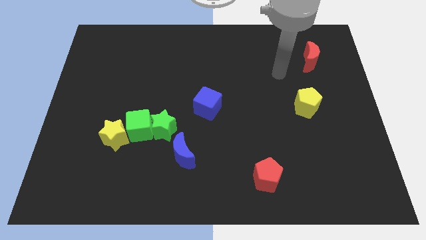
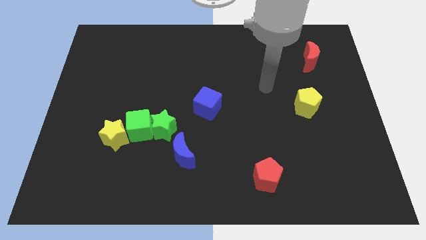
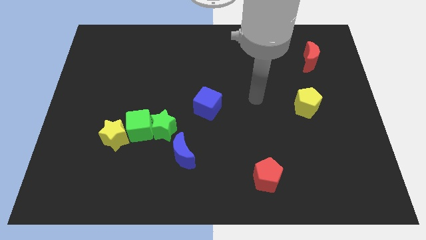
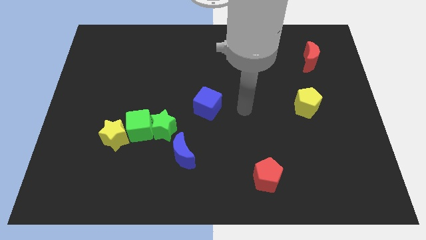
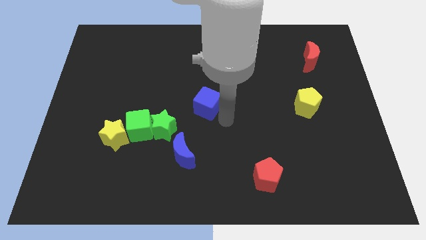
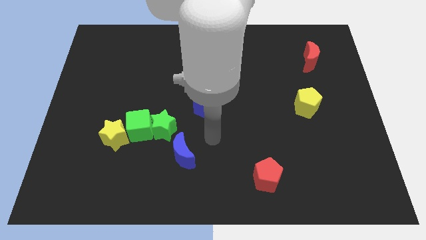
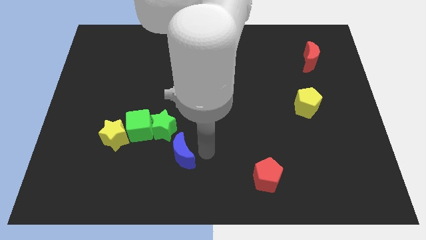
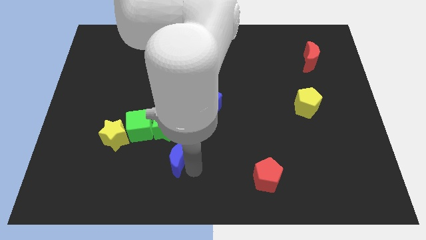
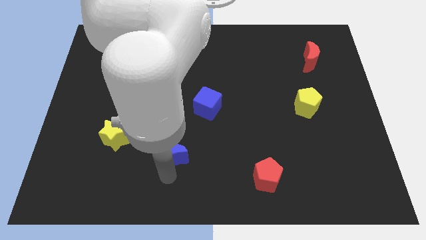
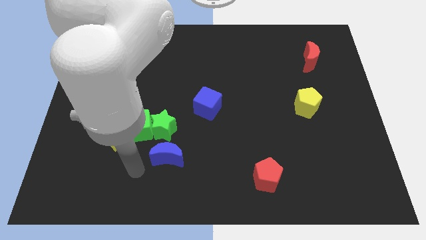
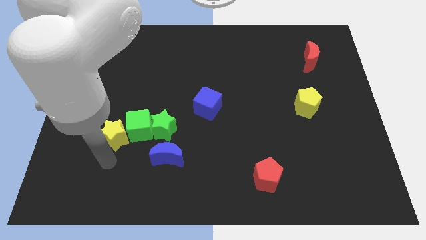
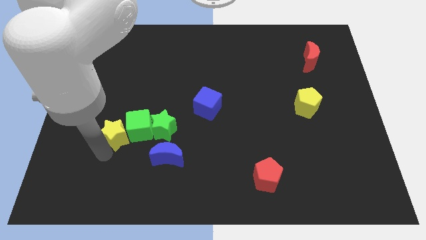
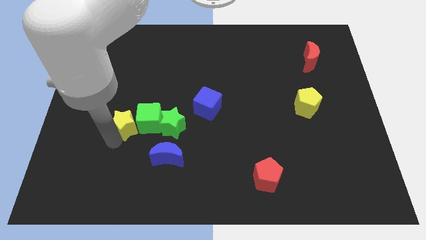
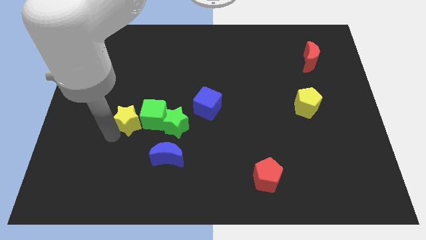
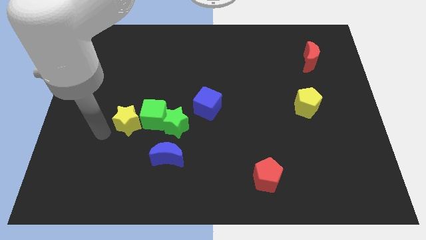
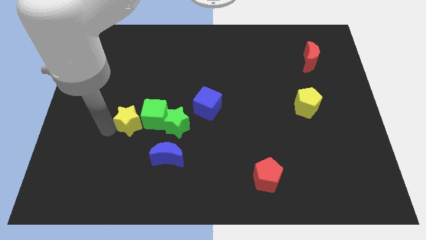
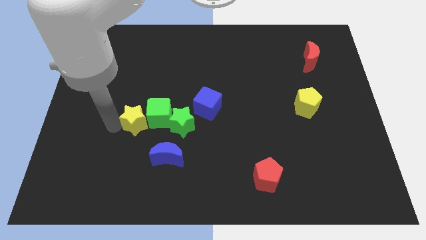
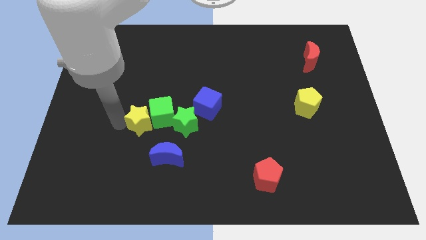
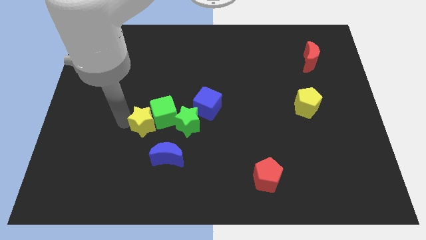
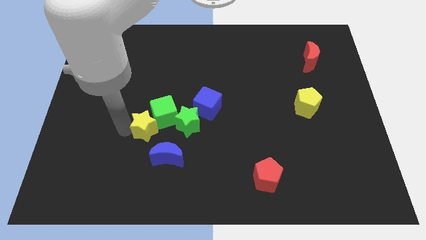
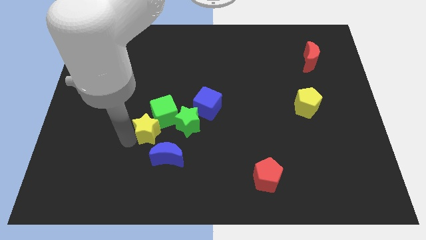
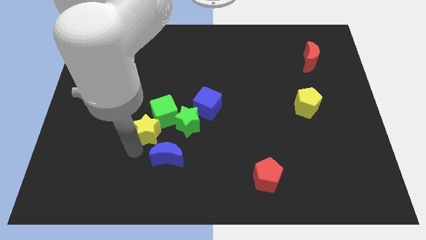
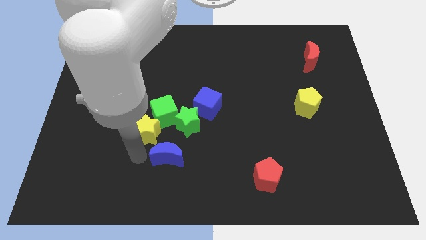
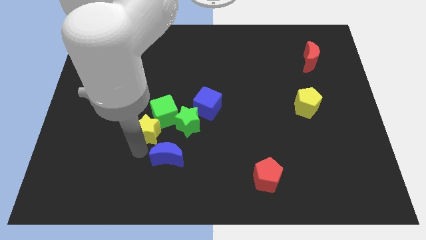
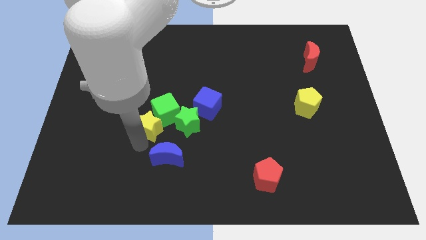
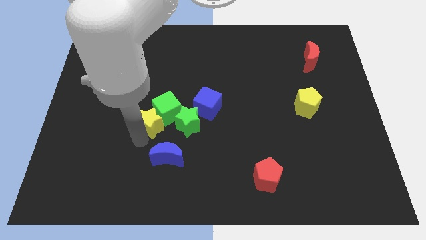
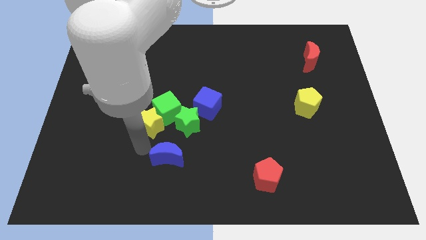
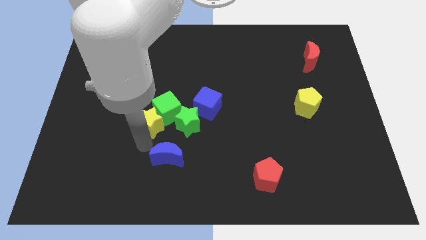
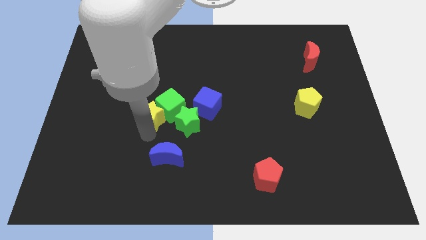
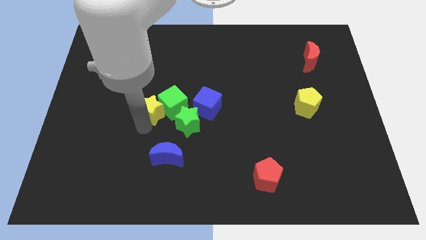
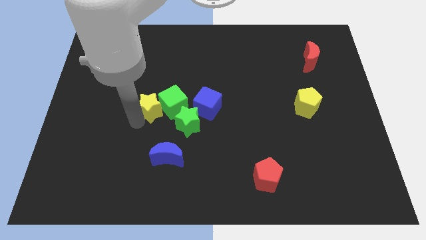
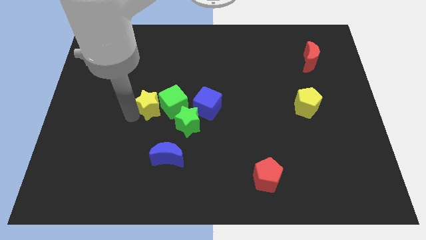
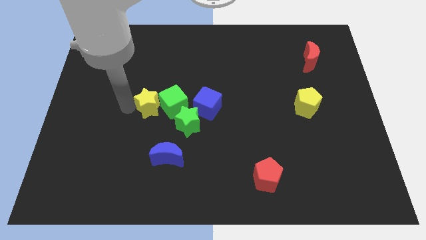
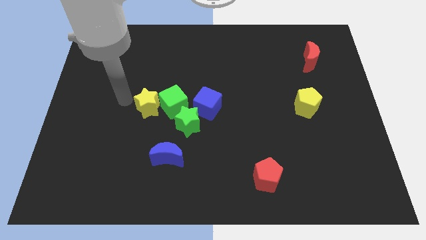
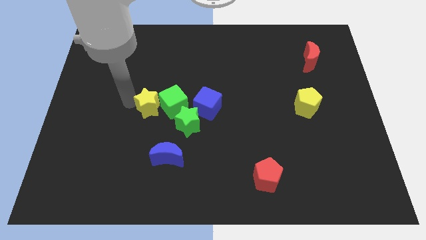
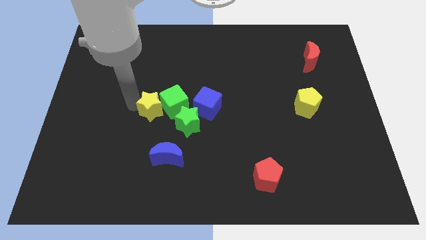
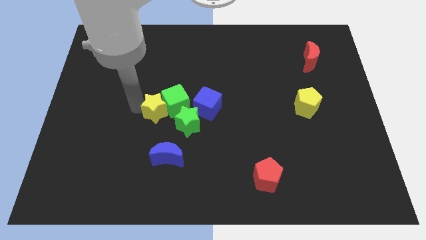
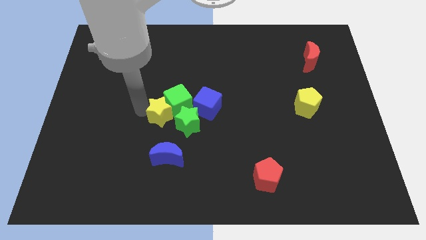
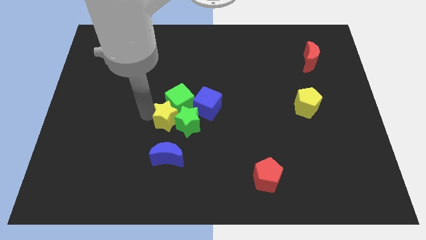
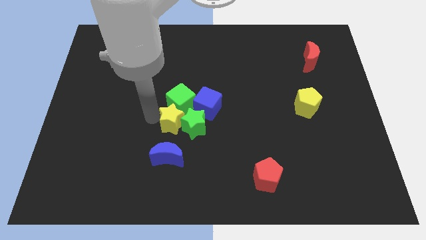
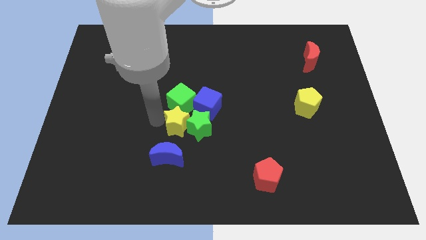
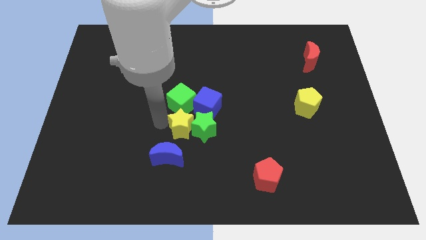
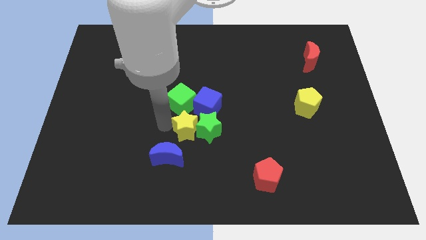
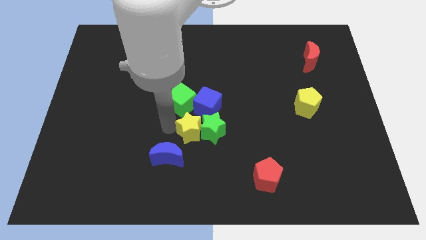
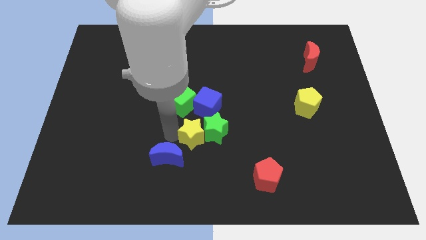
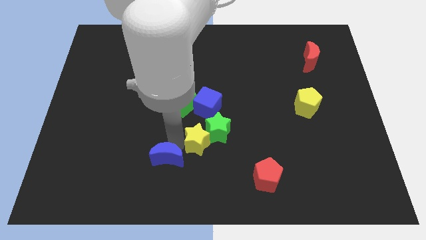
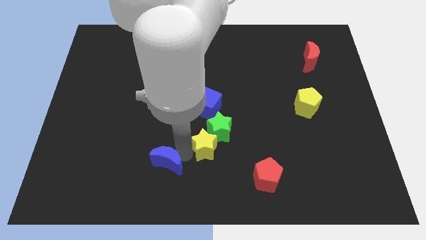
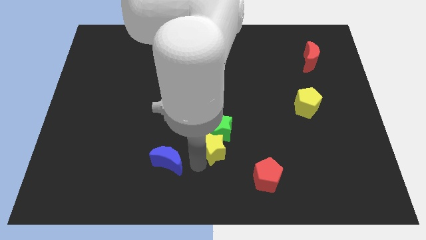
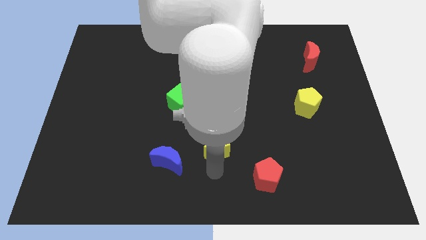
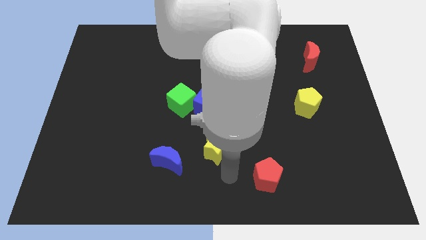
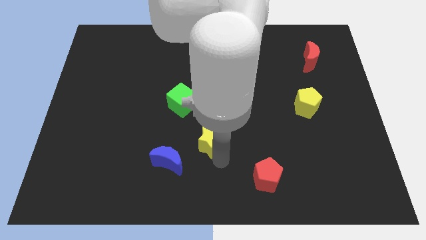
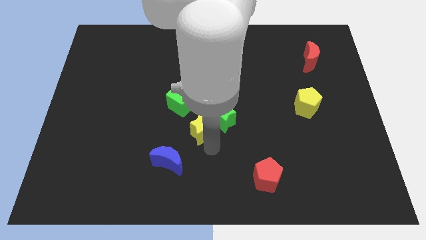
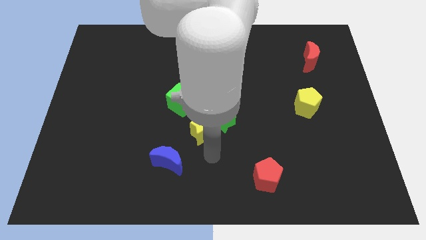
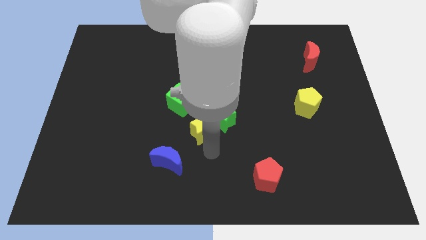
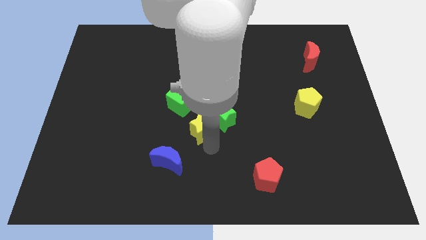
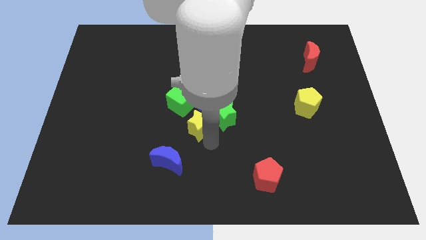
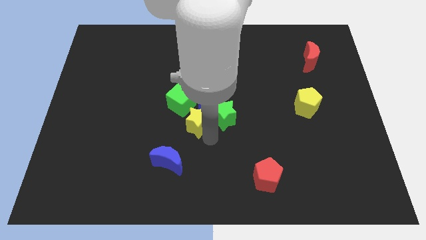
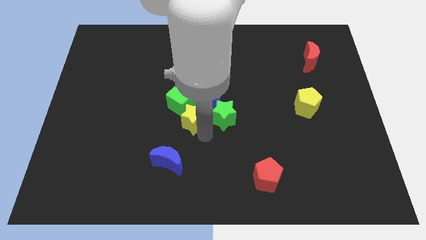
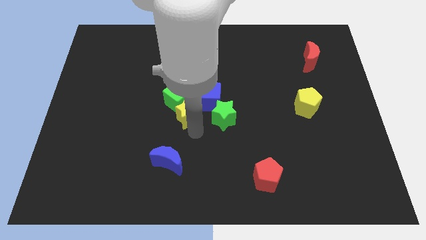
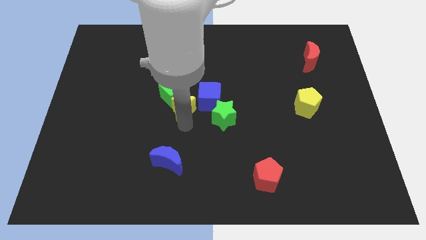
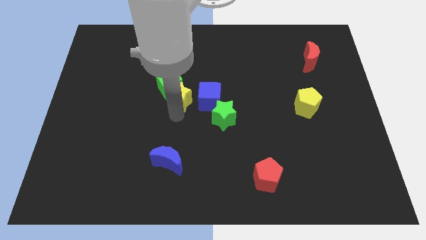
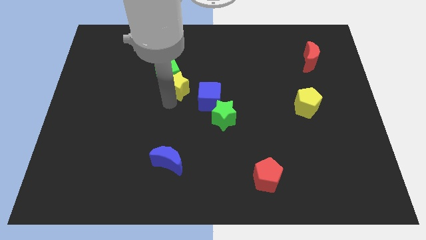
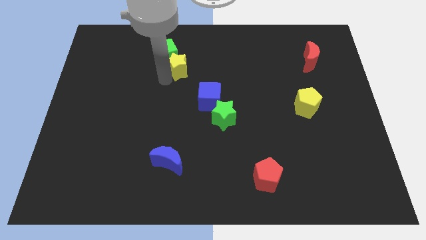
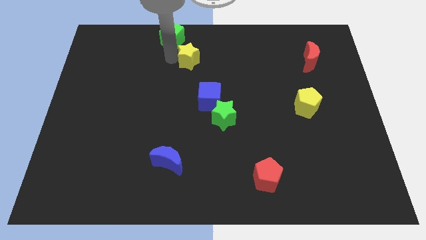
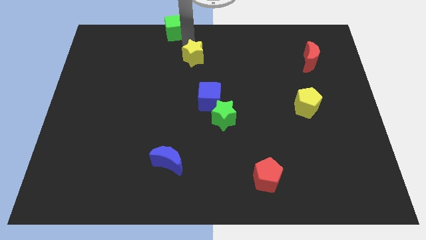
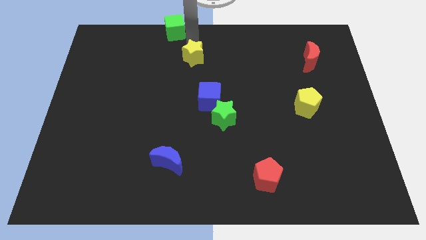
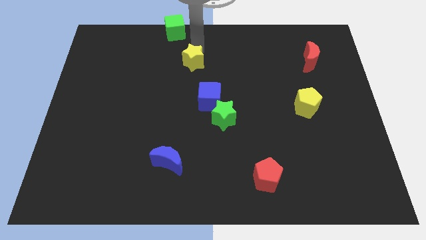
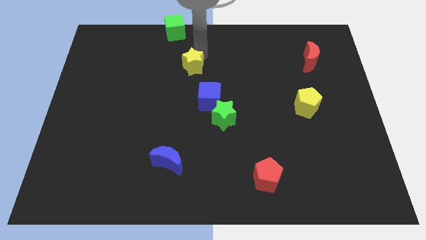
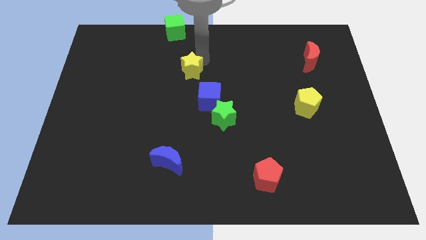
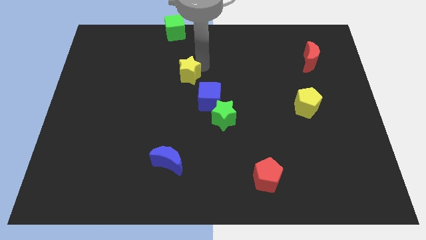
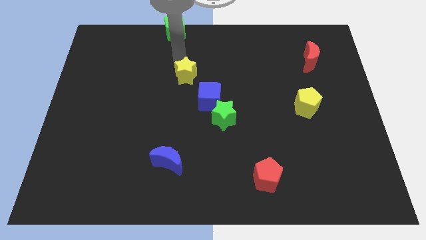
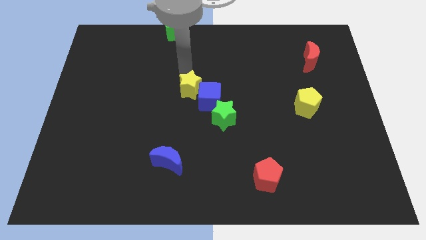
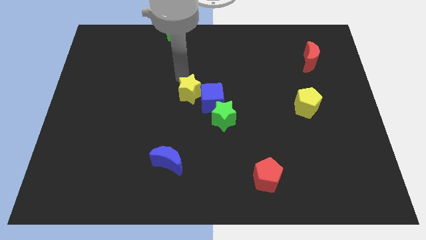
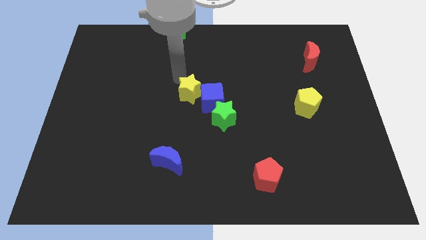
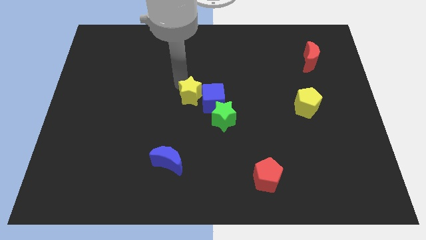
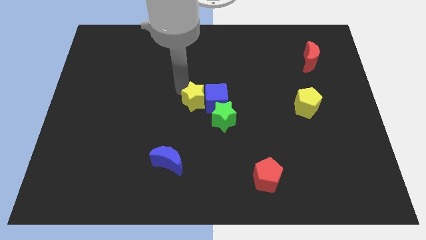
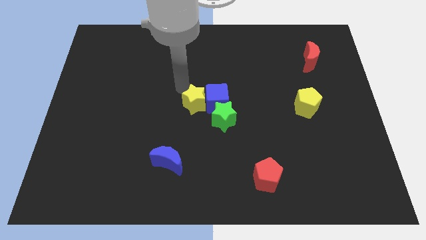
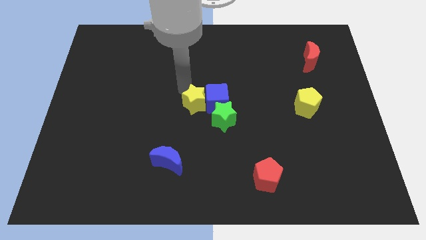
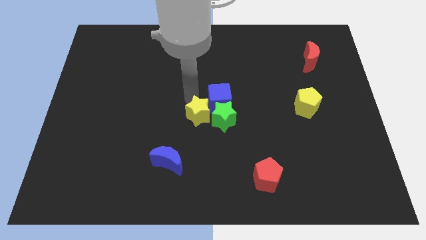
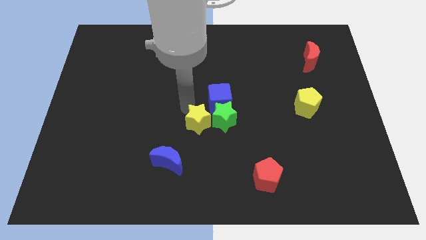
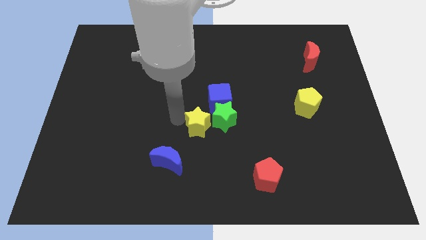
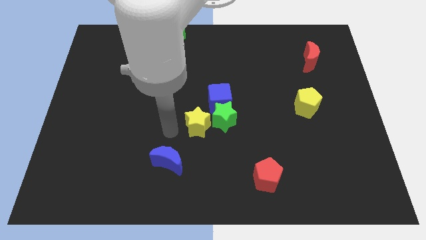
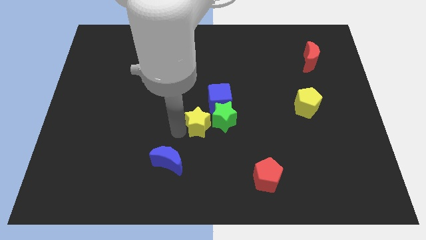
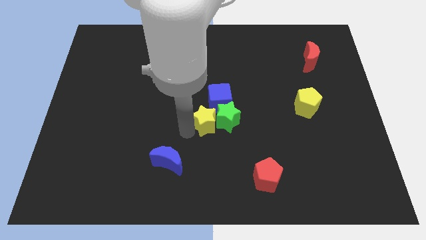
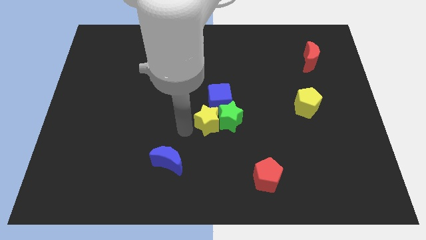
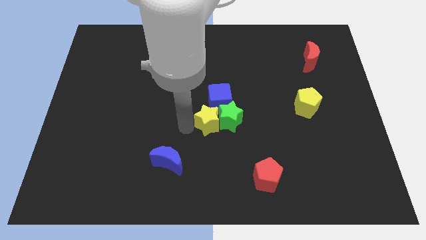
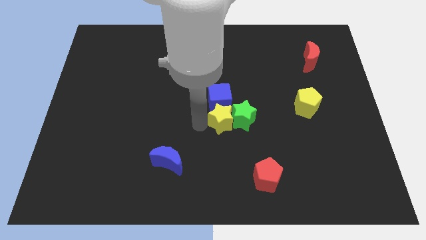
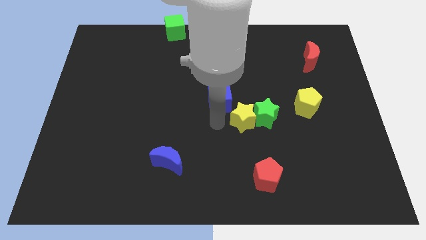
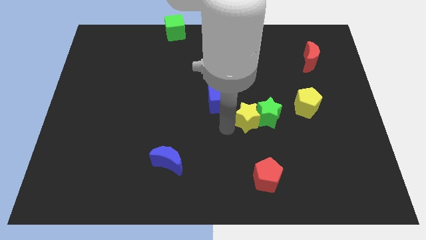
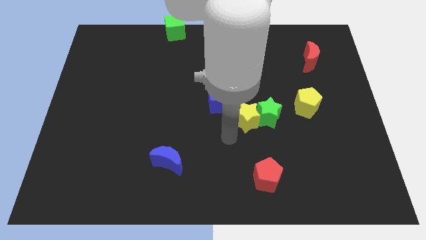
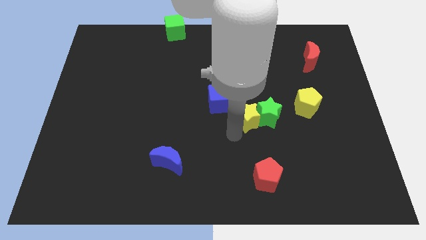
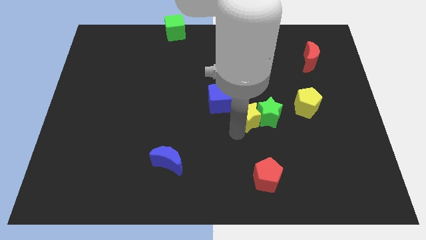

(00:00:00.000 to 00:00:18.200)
put the yellow star to the right side of the blue cube
